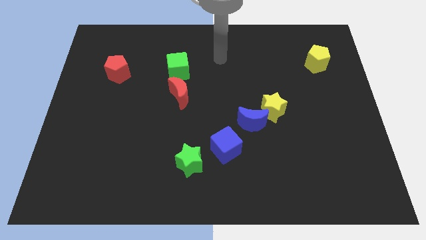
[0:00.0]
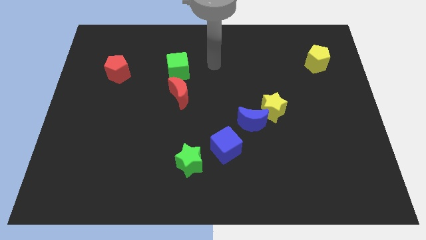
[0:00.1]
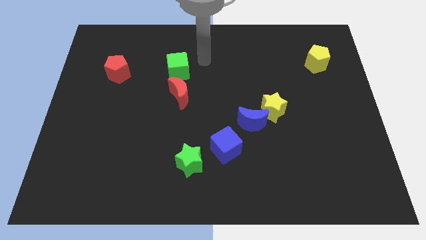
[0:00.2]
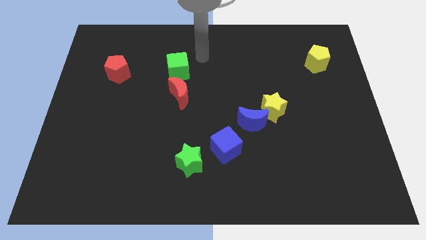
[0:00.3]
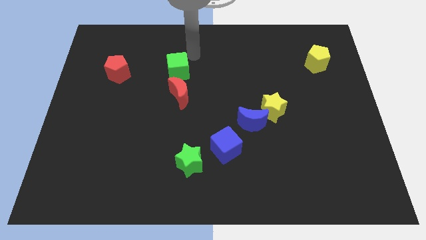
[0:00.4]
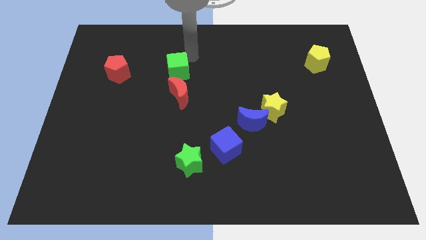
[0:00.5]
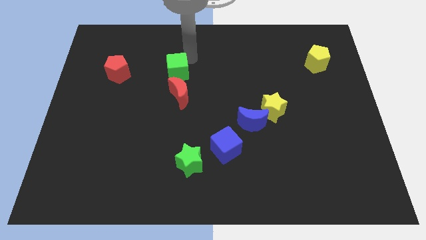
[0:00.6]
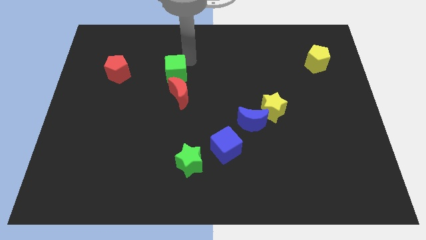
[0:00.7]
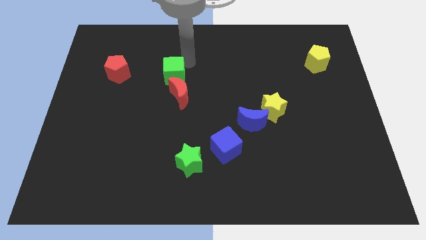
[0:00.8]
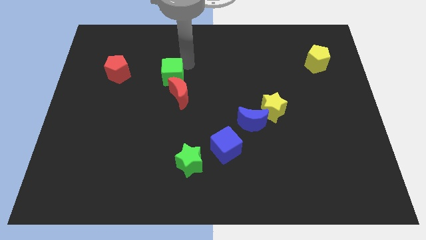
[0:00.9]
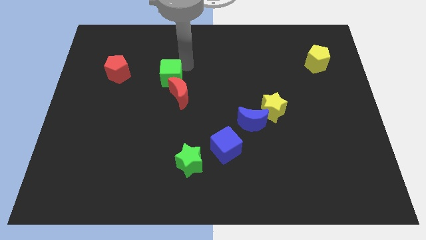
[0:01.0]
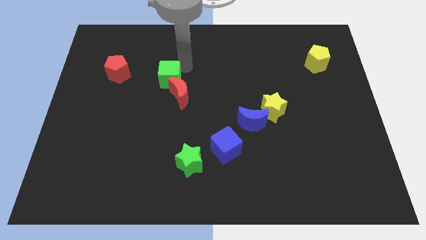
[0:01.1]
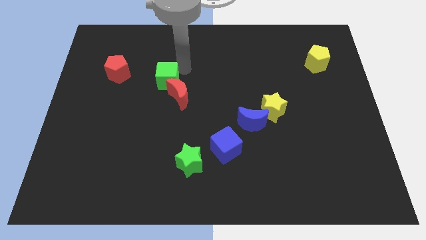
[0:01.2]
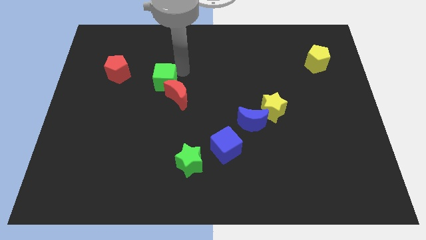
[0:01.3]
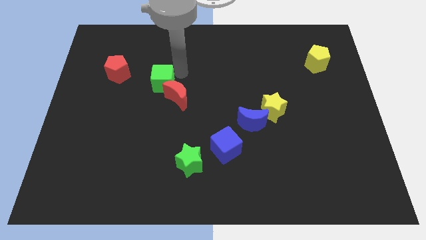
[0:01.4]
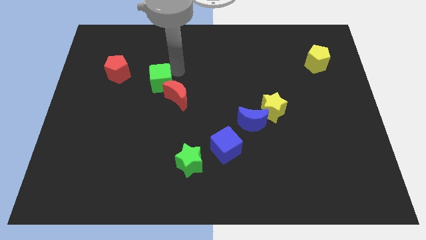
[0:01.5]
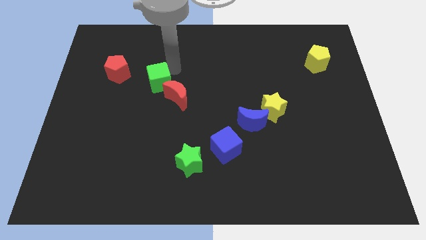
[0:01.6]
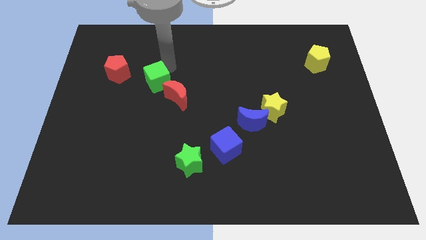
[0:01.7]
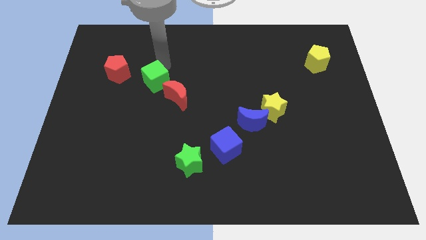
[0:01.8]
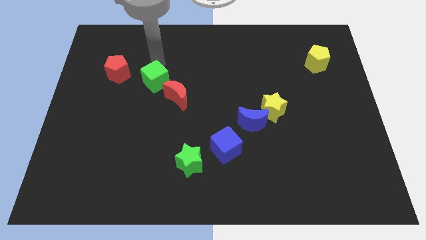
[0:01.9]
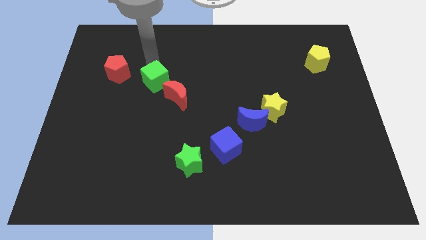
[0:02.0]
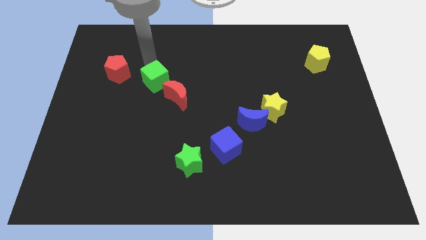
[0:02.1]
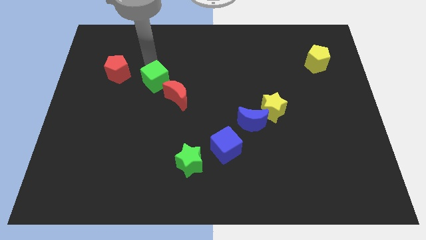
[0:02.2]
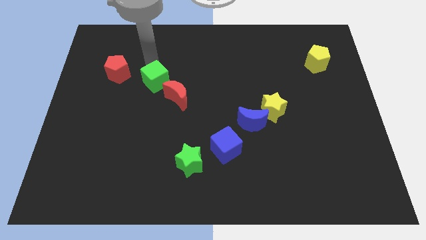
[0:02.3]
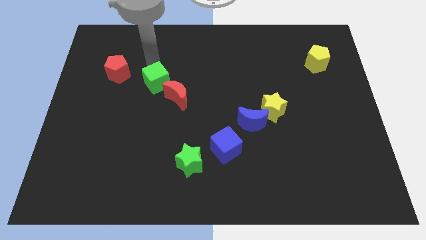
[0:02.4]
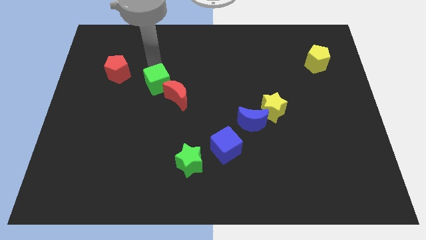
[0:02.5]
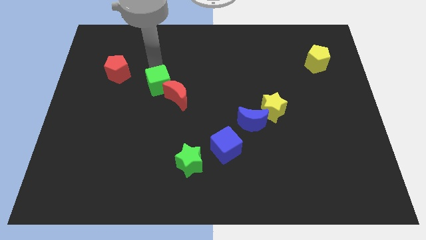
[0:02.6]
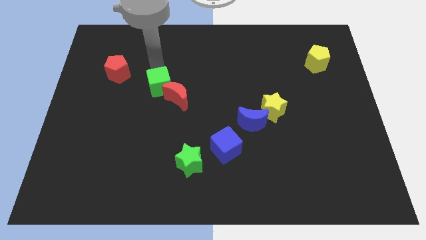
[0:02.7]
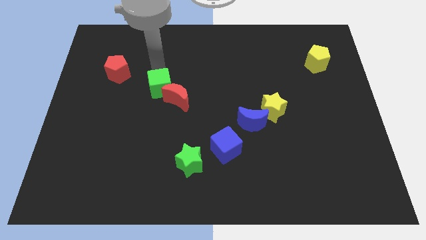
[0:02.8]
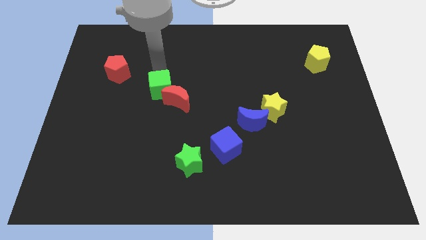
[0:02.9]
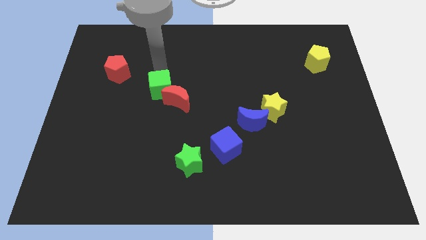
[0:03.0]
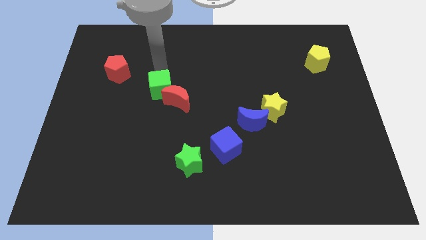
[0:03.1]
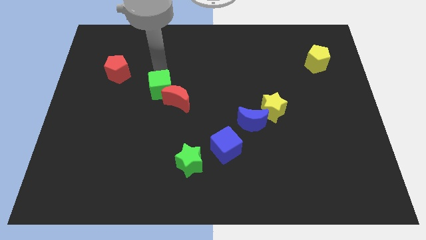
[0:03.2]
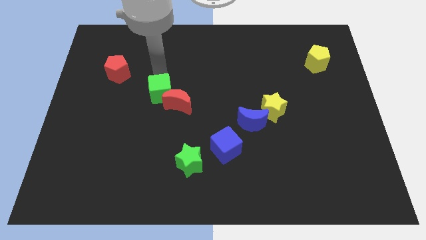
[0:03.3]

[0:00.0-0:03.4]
slightly move the green cube down

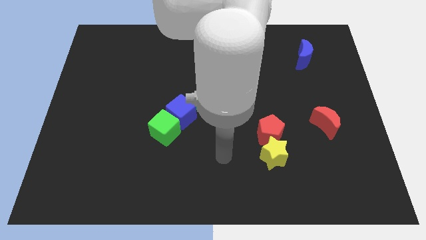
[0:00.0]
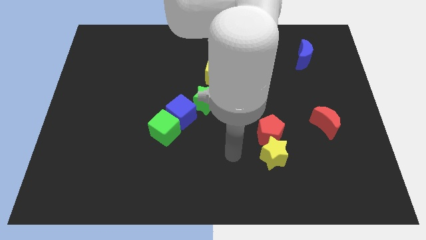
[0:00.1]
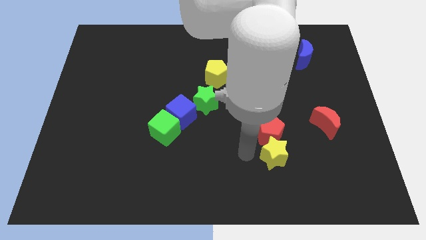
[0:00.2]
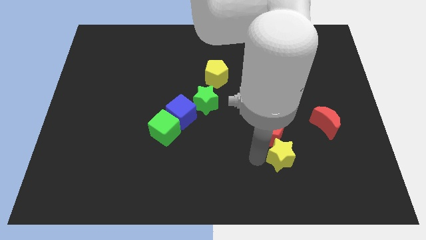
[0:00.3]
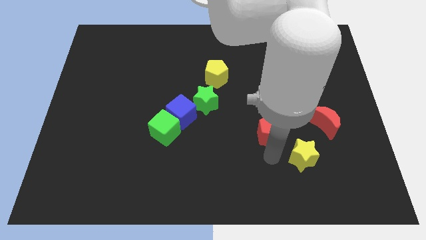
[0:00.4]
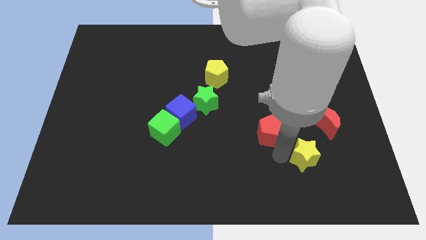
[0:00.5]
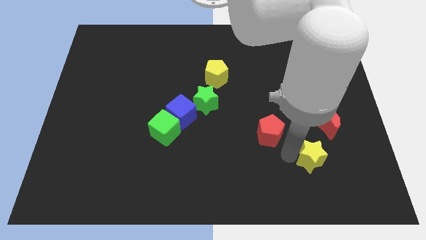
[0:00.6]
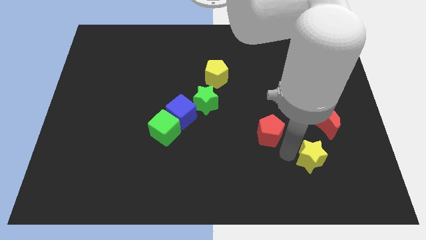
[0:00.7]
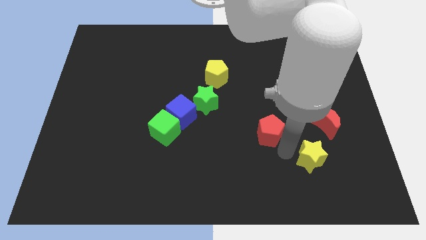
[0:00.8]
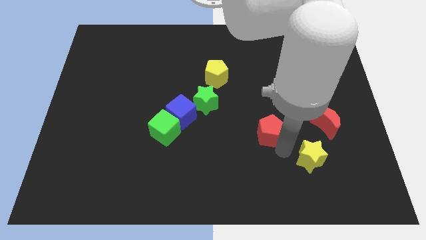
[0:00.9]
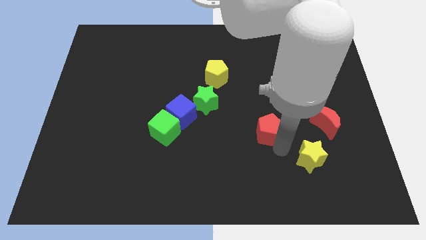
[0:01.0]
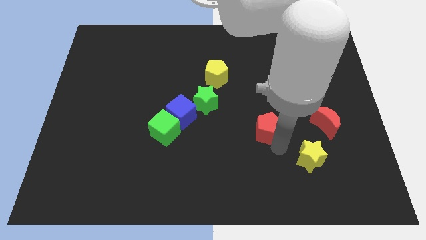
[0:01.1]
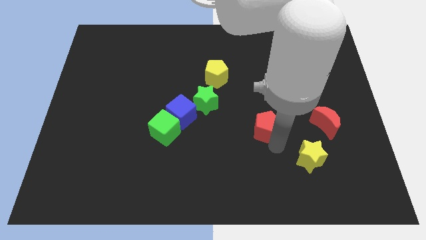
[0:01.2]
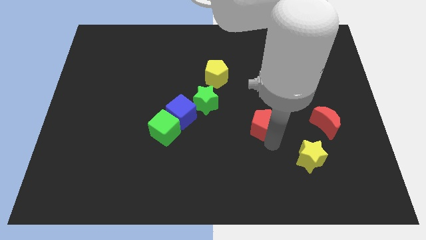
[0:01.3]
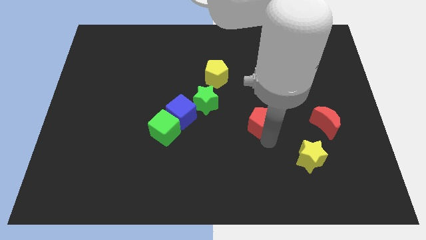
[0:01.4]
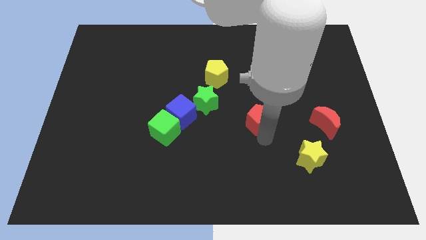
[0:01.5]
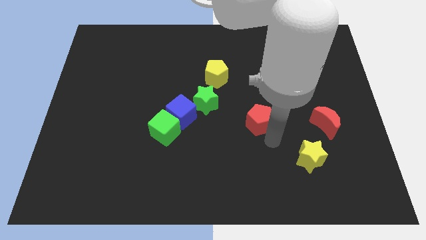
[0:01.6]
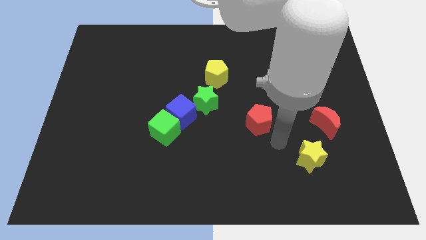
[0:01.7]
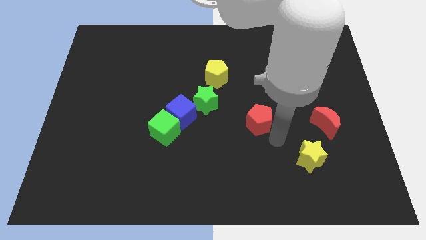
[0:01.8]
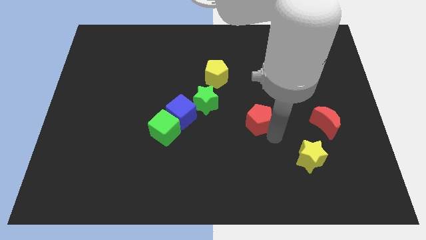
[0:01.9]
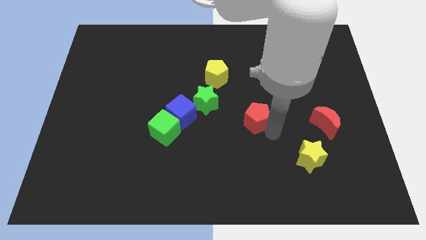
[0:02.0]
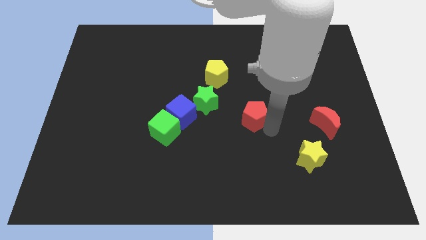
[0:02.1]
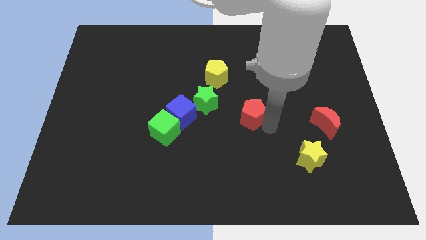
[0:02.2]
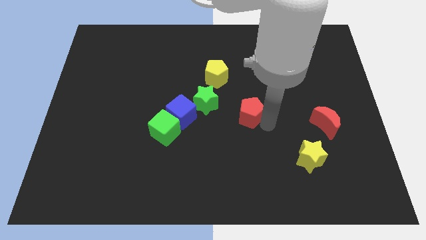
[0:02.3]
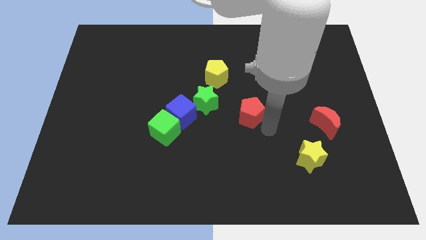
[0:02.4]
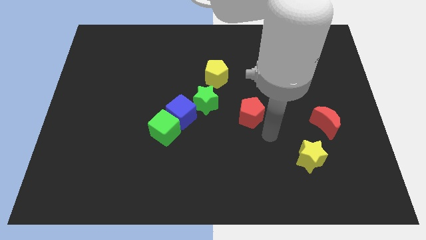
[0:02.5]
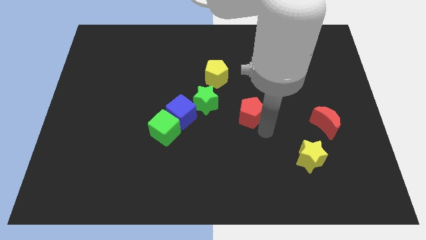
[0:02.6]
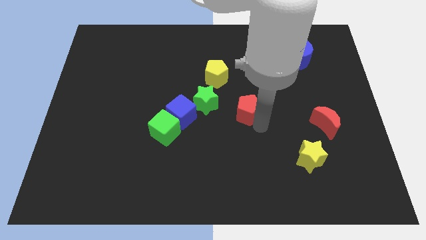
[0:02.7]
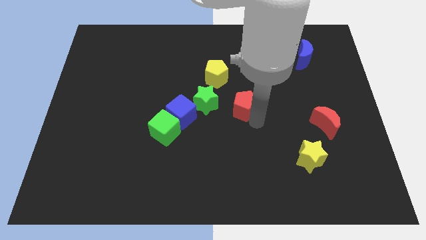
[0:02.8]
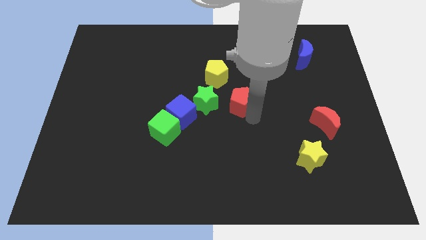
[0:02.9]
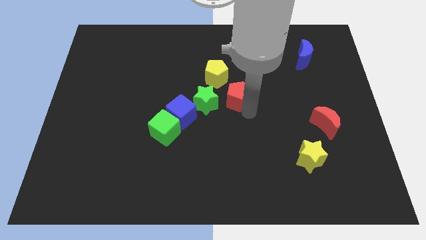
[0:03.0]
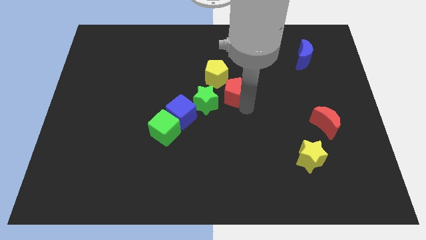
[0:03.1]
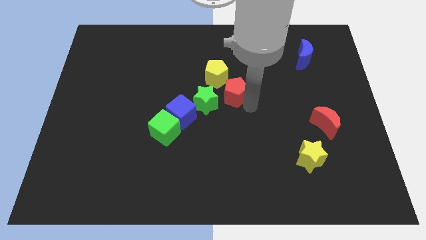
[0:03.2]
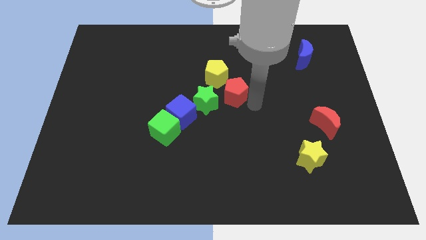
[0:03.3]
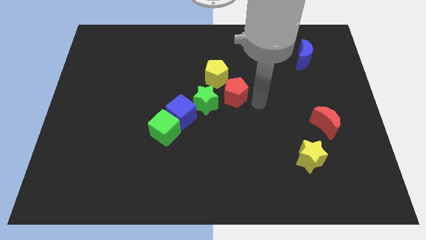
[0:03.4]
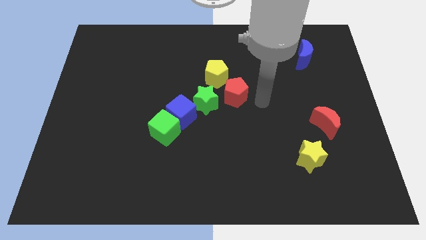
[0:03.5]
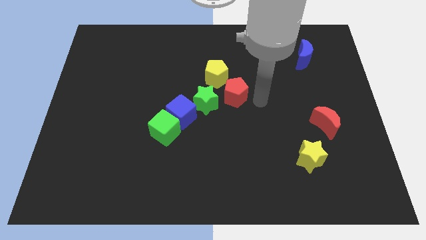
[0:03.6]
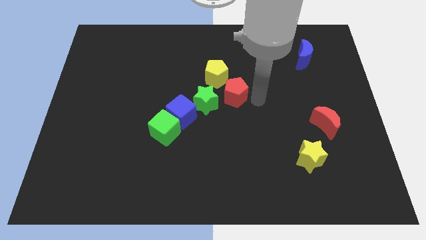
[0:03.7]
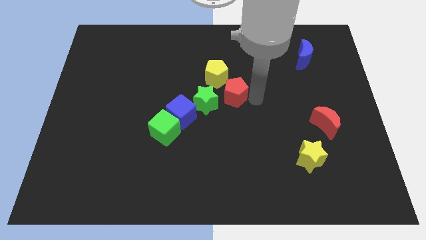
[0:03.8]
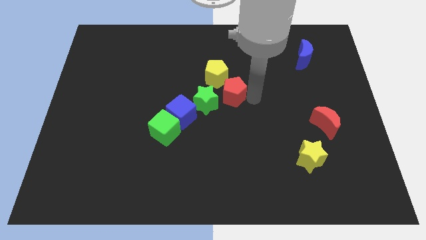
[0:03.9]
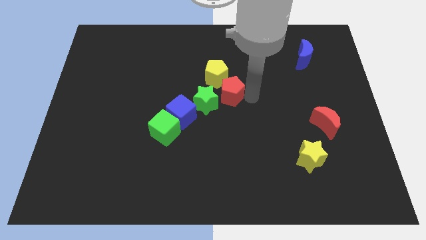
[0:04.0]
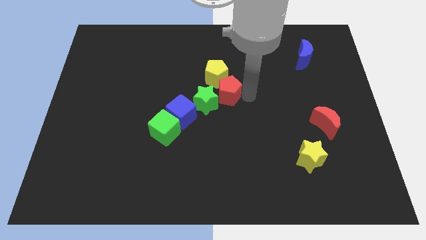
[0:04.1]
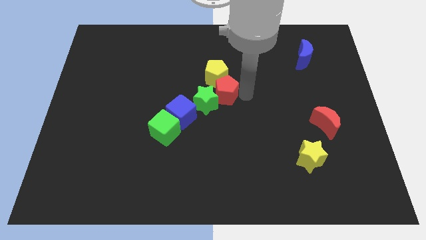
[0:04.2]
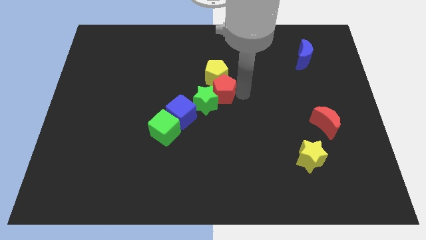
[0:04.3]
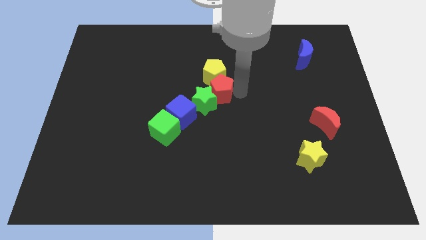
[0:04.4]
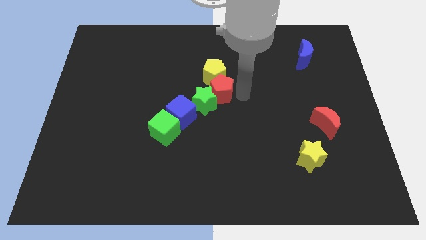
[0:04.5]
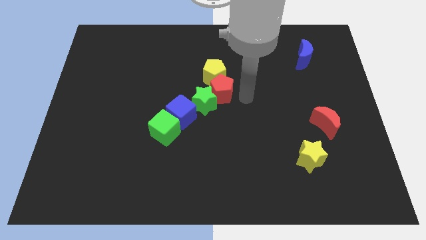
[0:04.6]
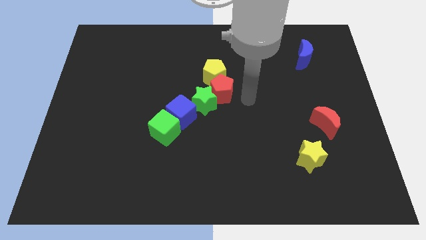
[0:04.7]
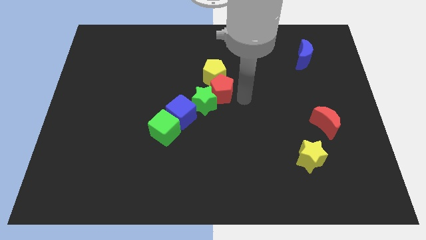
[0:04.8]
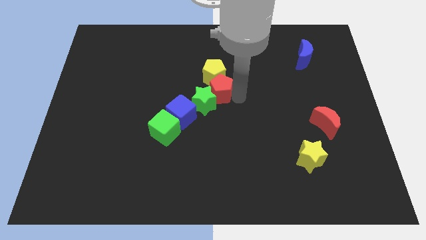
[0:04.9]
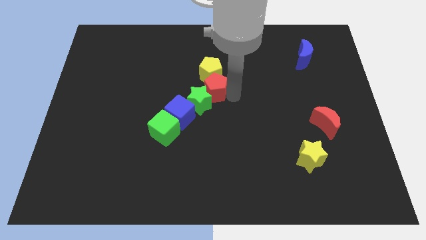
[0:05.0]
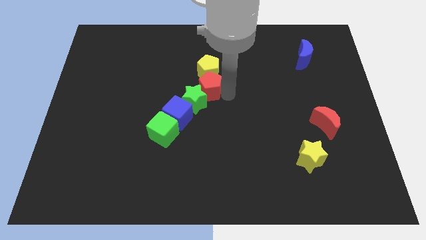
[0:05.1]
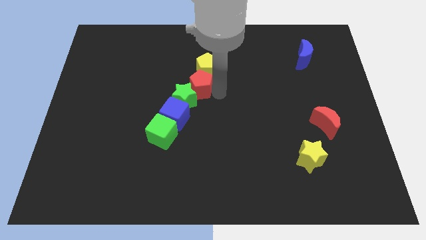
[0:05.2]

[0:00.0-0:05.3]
slide the red pentagon upwards and to the left
